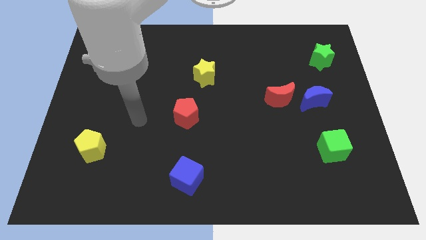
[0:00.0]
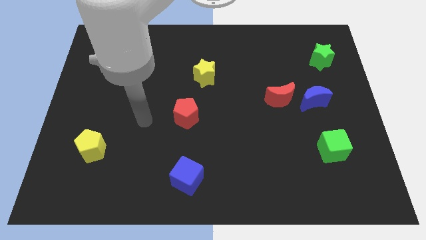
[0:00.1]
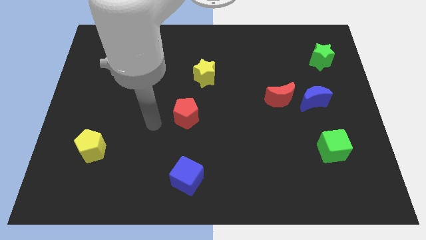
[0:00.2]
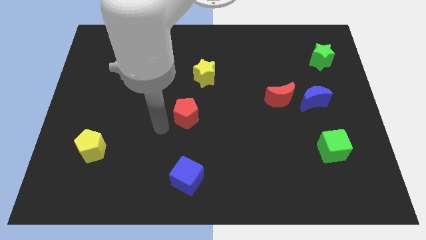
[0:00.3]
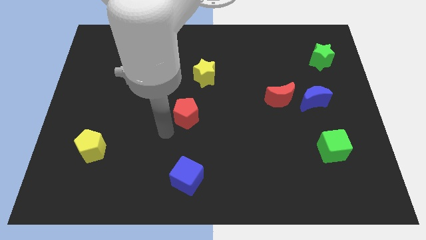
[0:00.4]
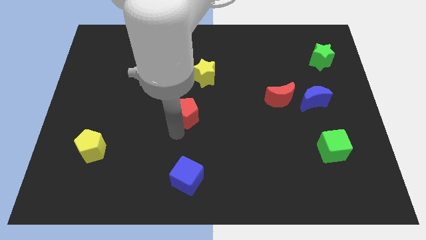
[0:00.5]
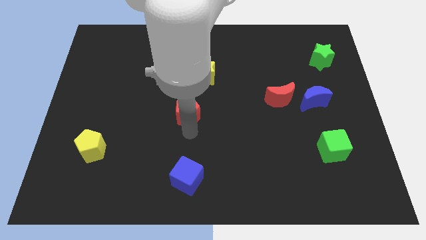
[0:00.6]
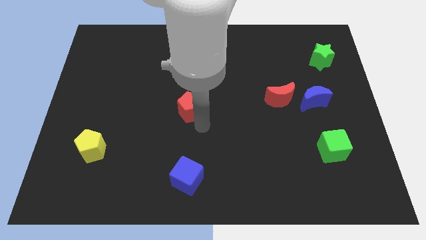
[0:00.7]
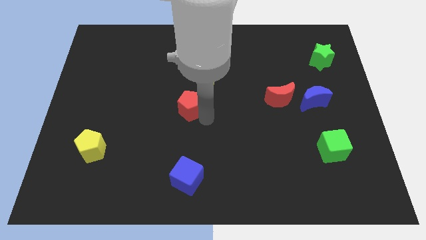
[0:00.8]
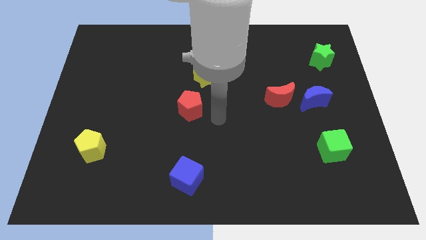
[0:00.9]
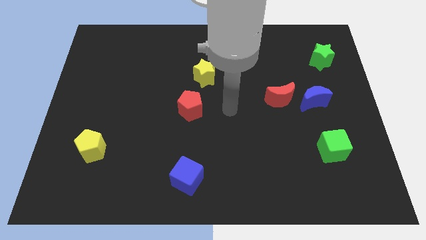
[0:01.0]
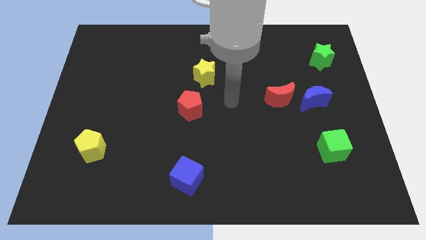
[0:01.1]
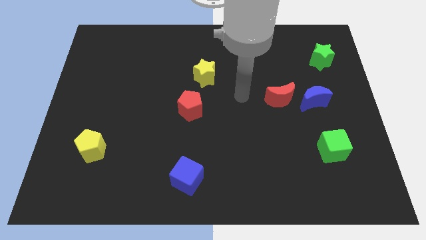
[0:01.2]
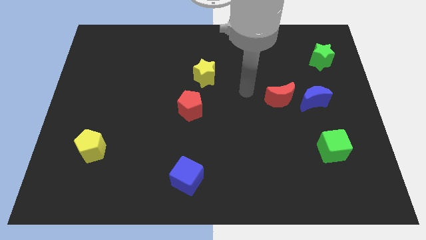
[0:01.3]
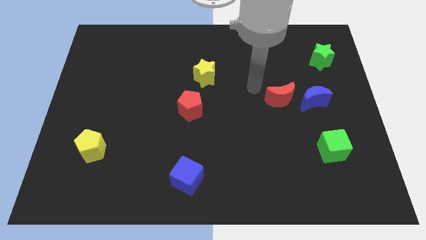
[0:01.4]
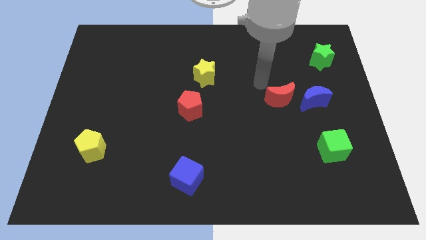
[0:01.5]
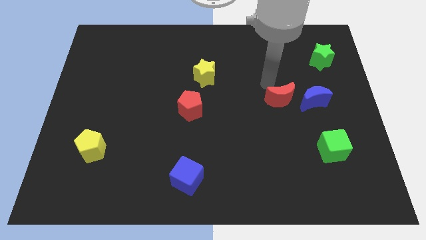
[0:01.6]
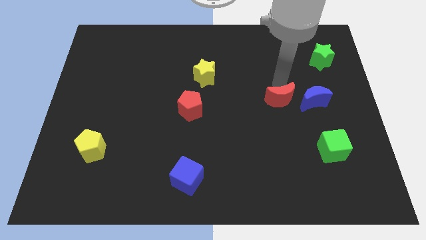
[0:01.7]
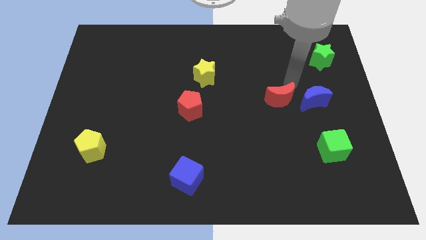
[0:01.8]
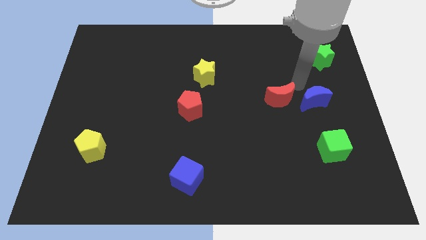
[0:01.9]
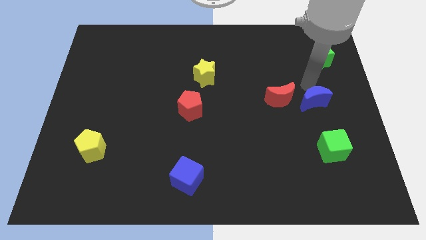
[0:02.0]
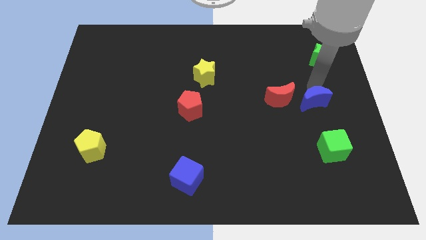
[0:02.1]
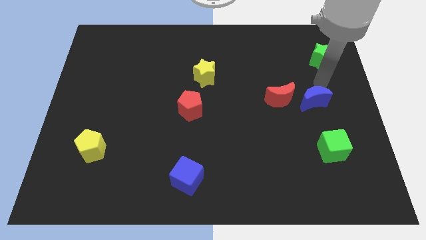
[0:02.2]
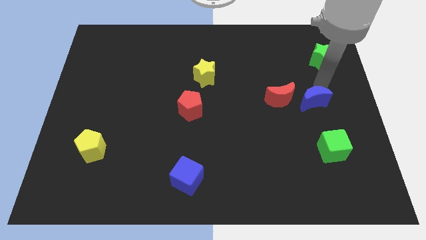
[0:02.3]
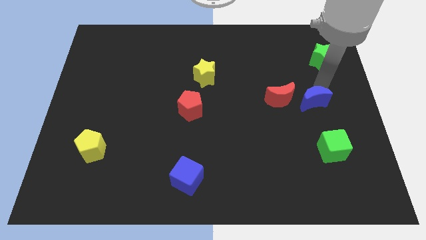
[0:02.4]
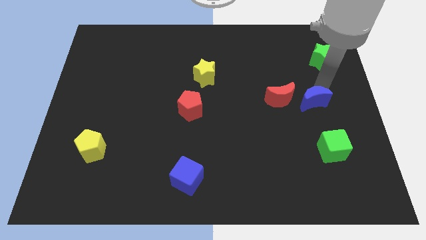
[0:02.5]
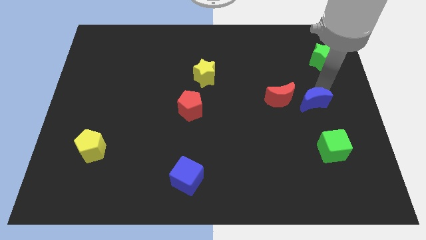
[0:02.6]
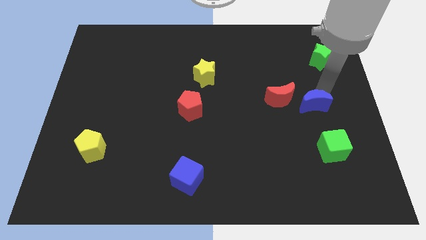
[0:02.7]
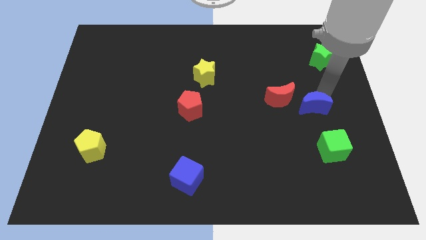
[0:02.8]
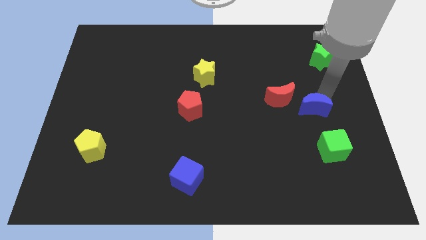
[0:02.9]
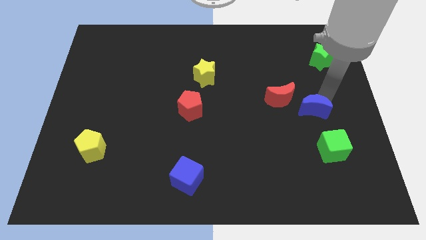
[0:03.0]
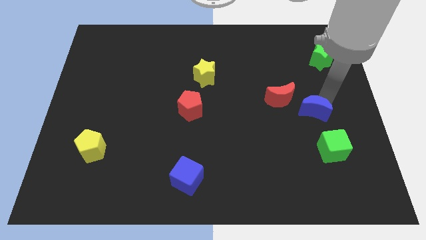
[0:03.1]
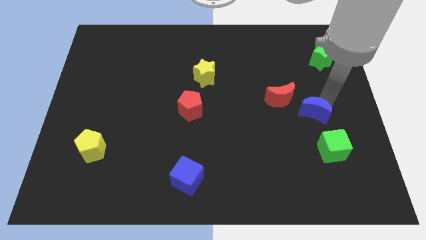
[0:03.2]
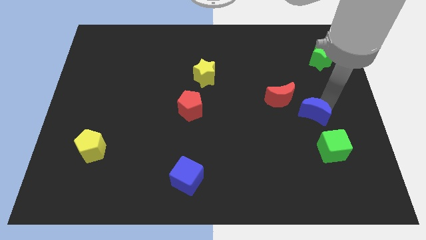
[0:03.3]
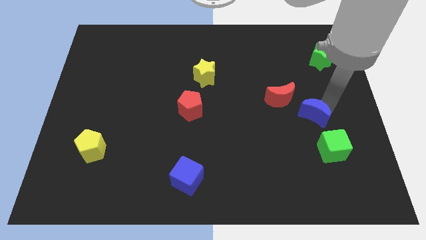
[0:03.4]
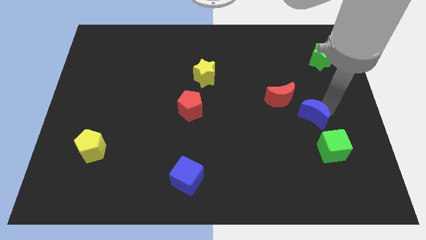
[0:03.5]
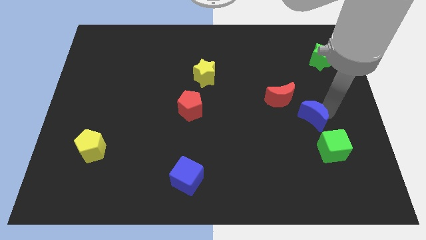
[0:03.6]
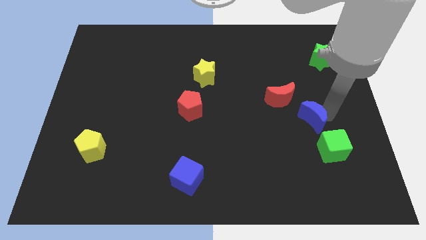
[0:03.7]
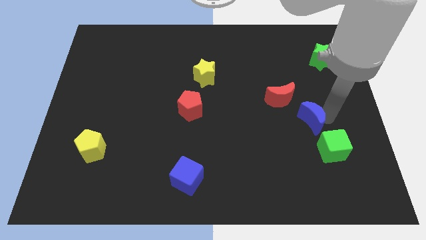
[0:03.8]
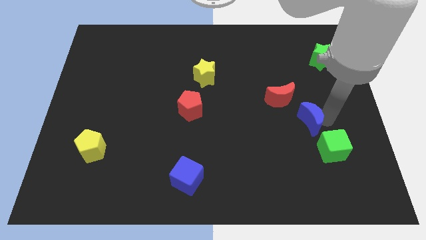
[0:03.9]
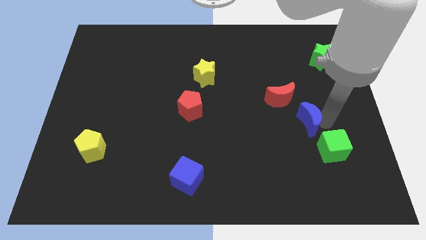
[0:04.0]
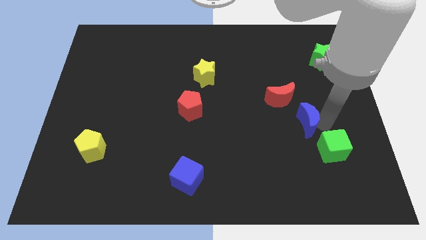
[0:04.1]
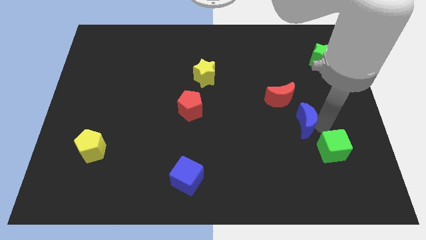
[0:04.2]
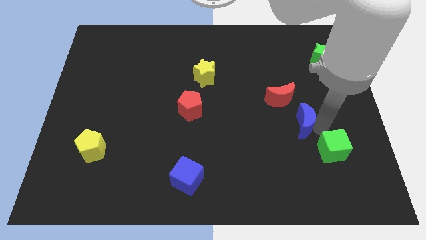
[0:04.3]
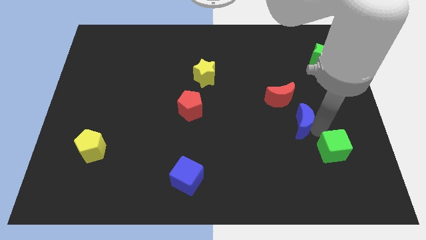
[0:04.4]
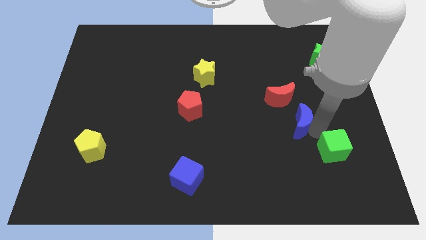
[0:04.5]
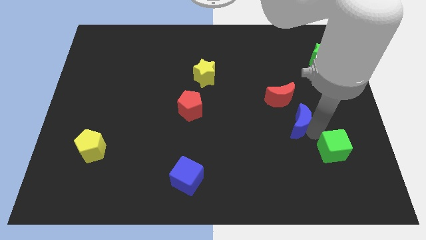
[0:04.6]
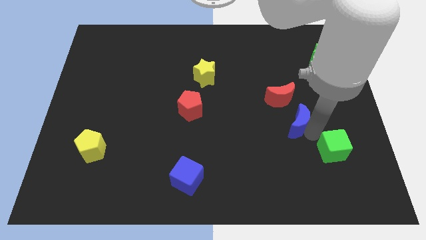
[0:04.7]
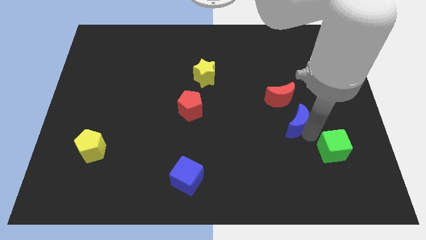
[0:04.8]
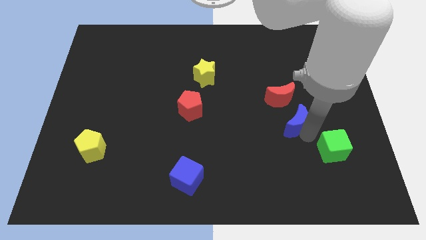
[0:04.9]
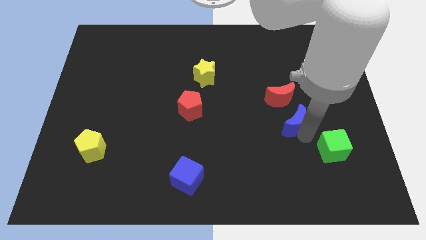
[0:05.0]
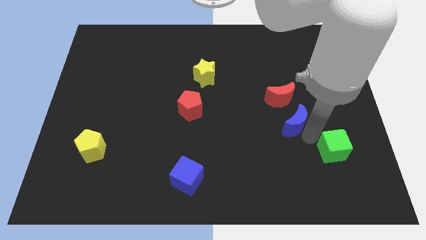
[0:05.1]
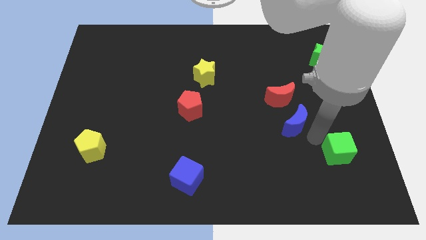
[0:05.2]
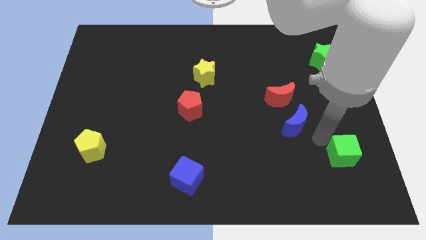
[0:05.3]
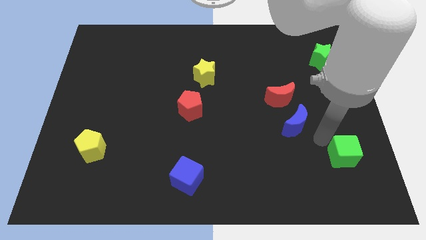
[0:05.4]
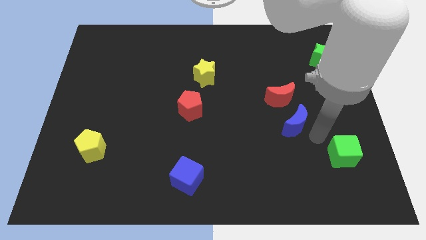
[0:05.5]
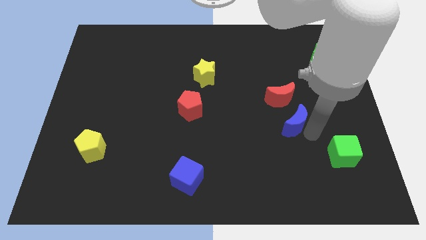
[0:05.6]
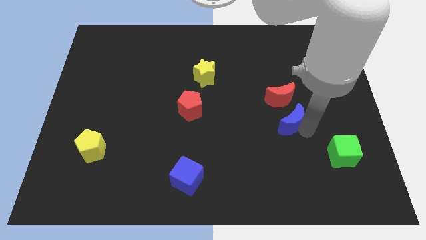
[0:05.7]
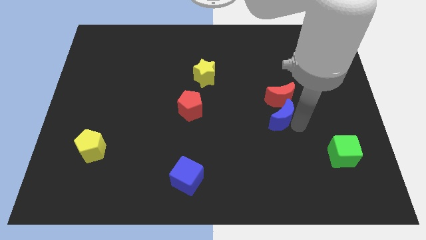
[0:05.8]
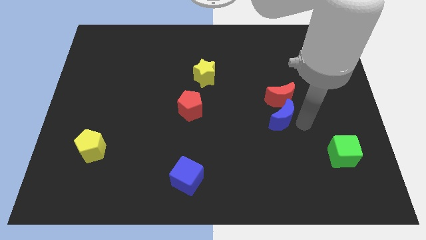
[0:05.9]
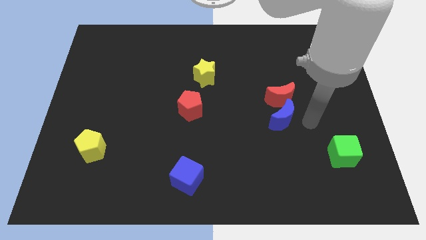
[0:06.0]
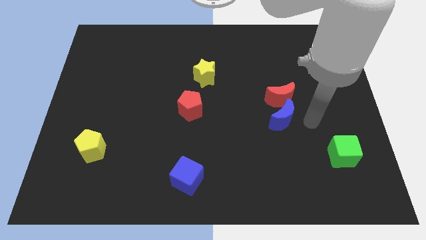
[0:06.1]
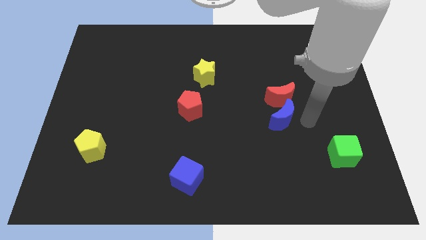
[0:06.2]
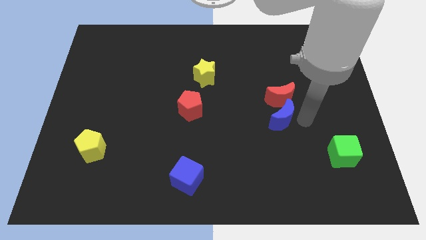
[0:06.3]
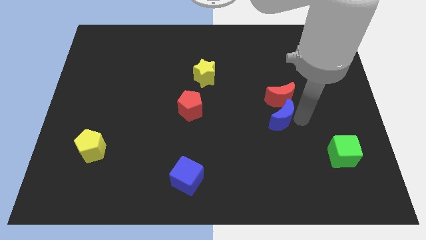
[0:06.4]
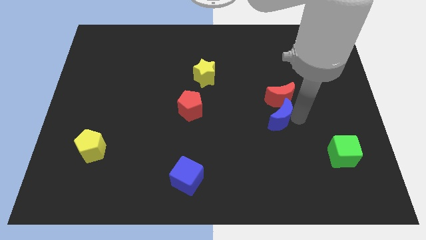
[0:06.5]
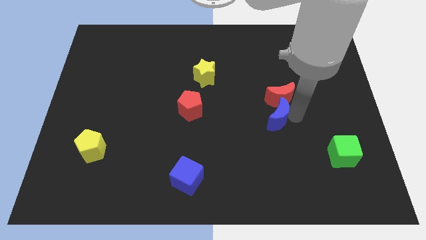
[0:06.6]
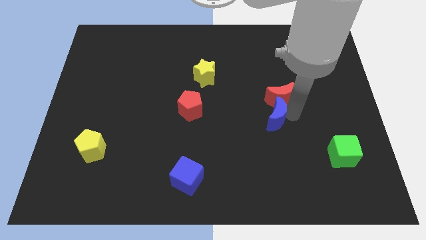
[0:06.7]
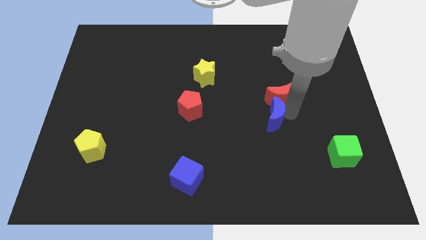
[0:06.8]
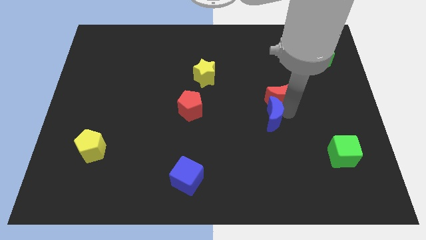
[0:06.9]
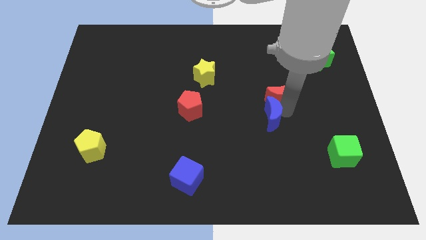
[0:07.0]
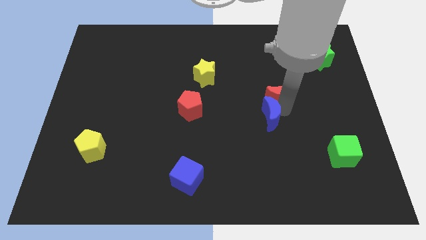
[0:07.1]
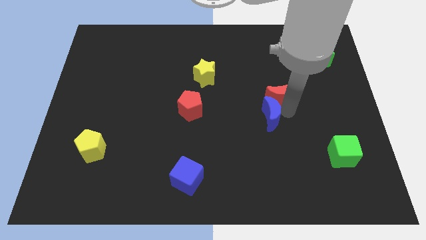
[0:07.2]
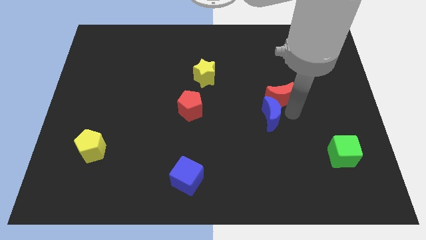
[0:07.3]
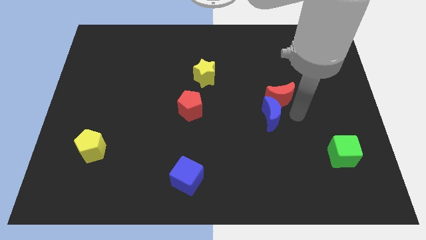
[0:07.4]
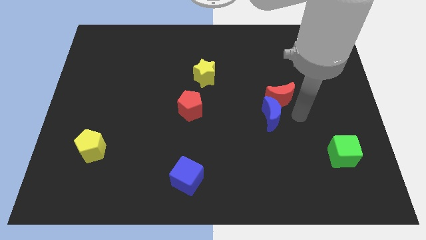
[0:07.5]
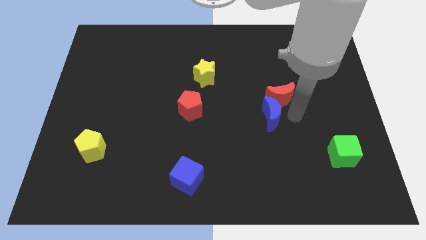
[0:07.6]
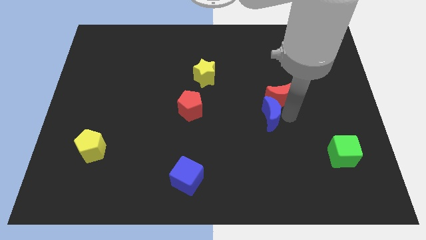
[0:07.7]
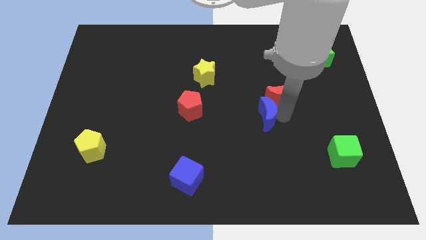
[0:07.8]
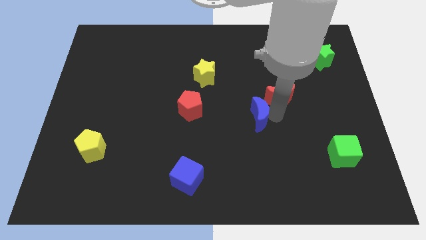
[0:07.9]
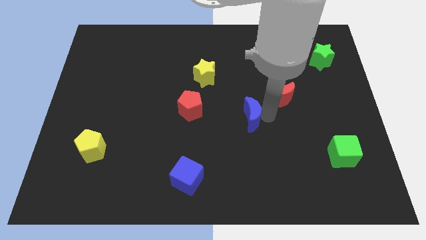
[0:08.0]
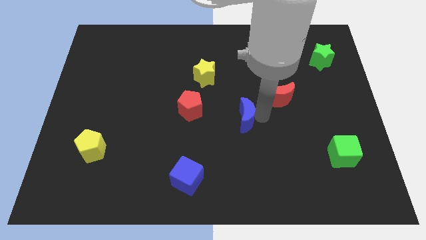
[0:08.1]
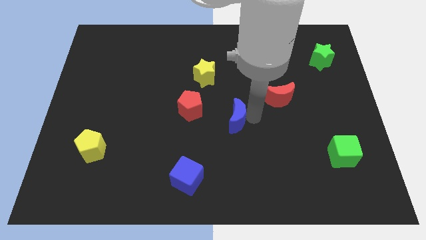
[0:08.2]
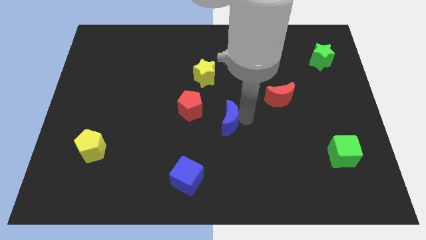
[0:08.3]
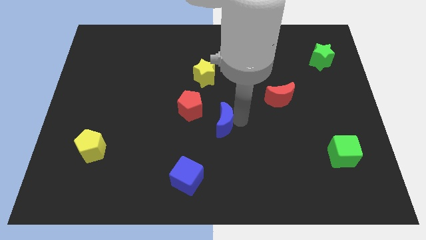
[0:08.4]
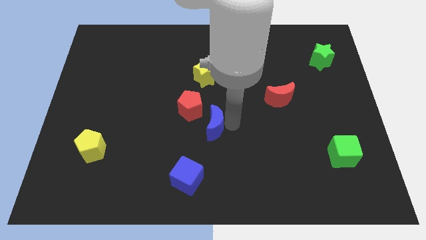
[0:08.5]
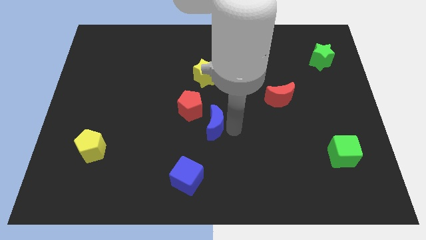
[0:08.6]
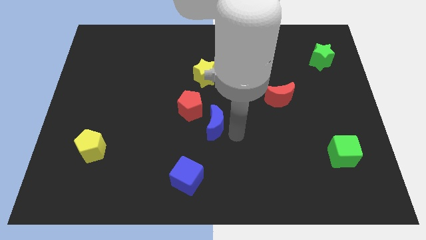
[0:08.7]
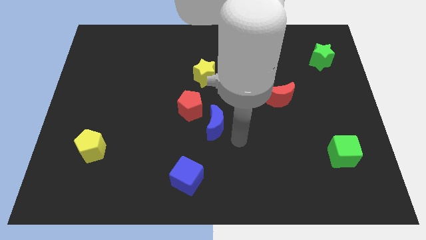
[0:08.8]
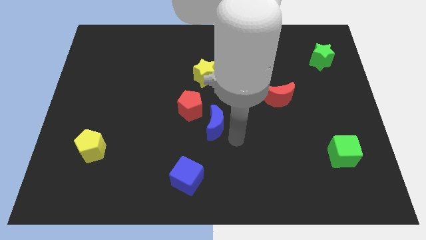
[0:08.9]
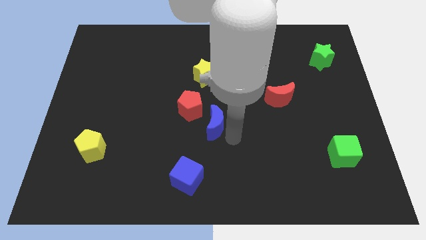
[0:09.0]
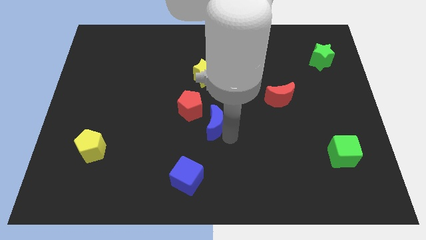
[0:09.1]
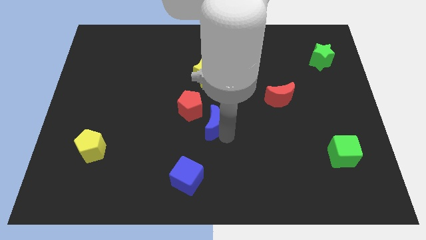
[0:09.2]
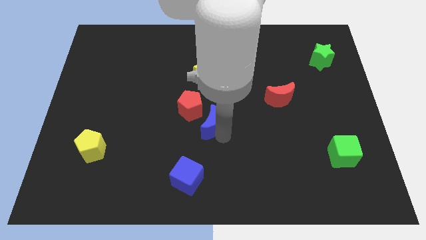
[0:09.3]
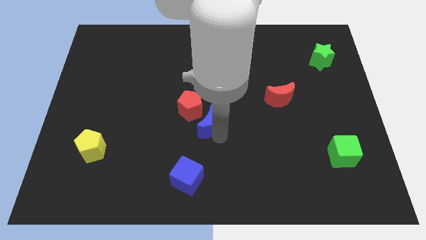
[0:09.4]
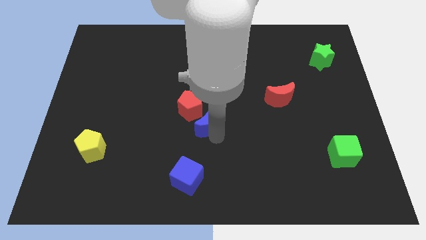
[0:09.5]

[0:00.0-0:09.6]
put the blue moon to the red pentagon
